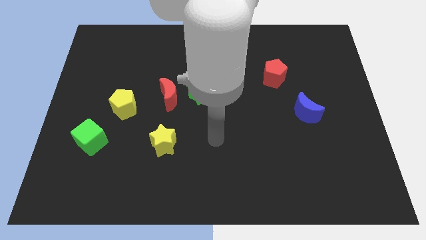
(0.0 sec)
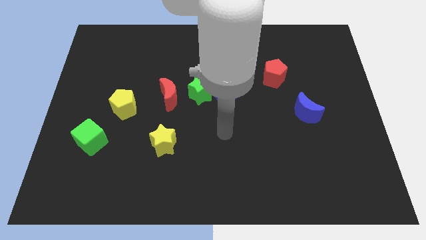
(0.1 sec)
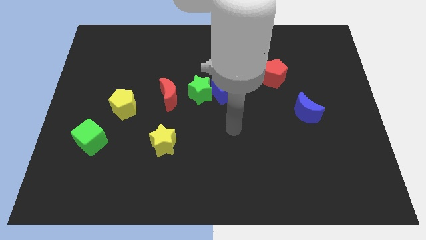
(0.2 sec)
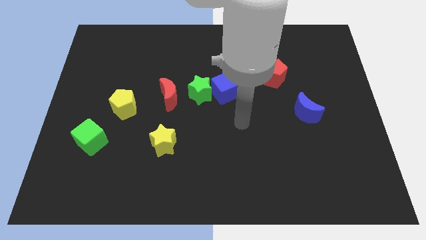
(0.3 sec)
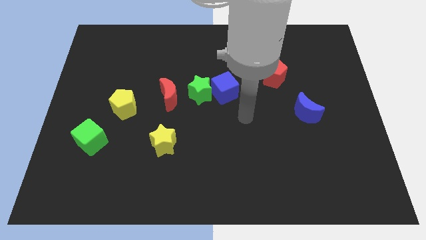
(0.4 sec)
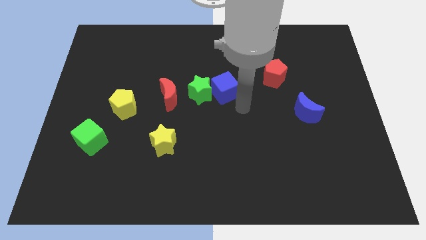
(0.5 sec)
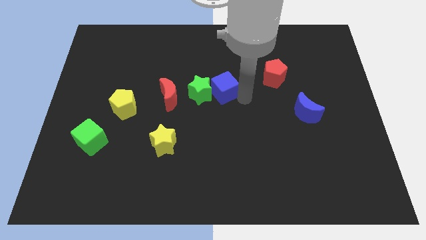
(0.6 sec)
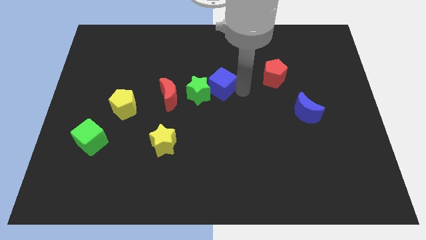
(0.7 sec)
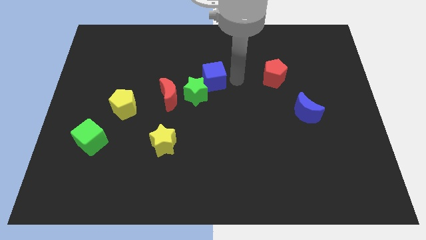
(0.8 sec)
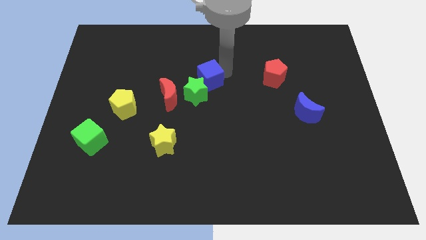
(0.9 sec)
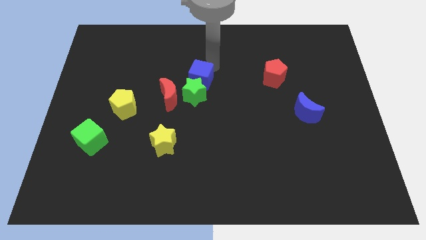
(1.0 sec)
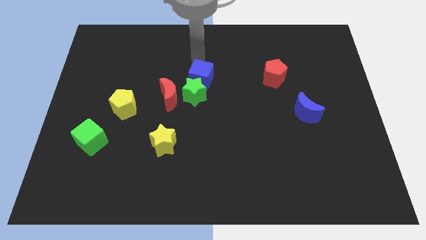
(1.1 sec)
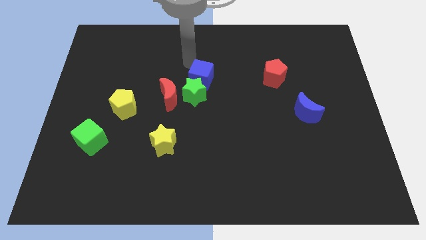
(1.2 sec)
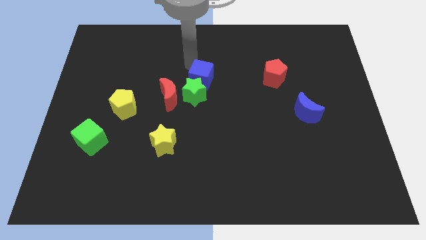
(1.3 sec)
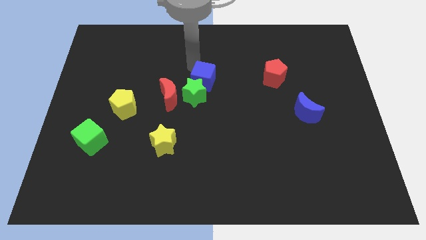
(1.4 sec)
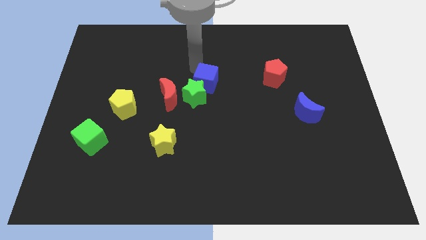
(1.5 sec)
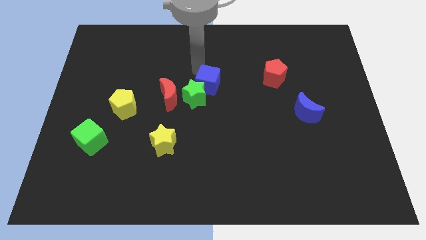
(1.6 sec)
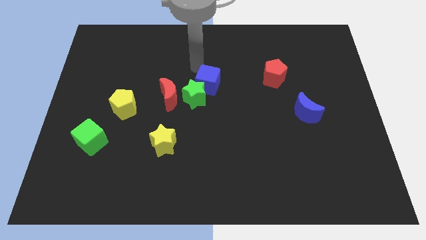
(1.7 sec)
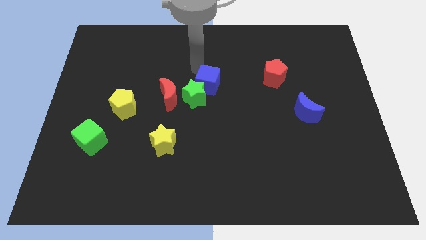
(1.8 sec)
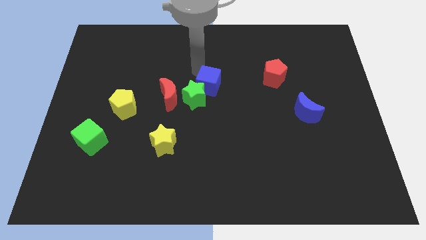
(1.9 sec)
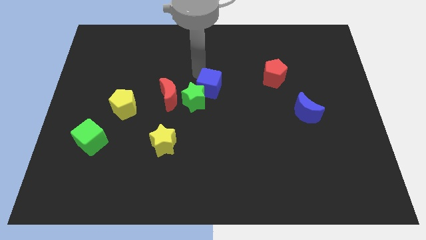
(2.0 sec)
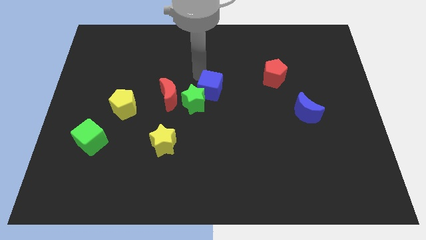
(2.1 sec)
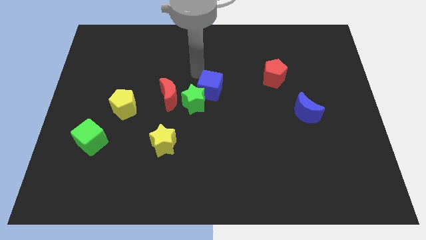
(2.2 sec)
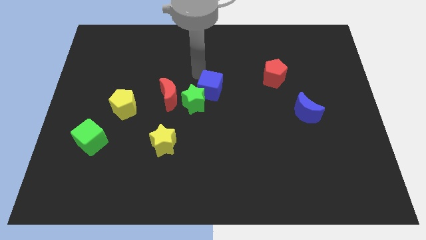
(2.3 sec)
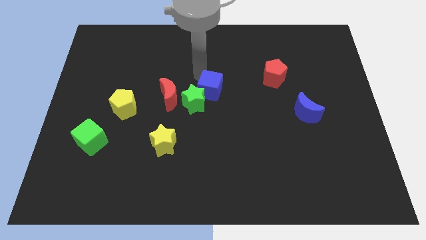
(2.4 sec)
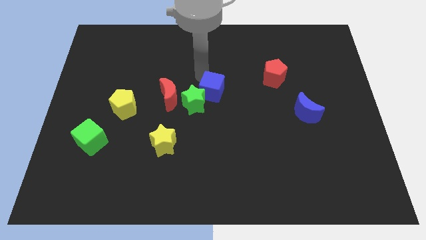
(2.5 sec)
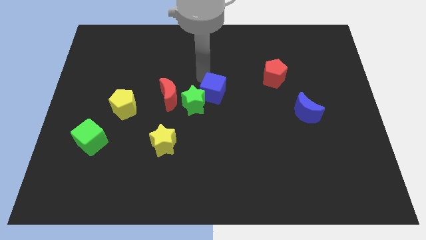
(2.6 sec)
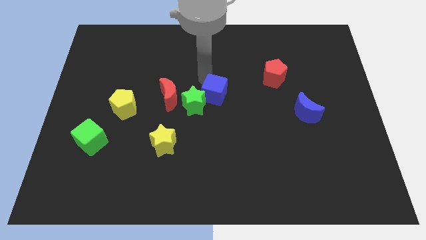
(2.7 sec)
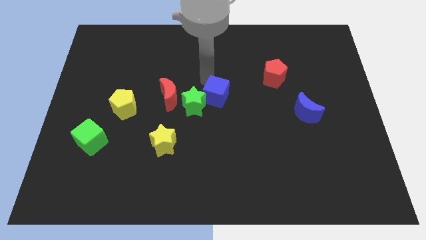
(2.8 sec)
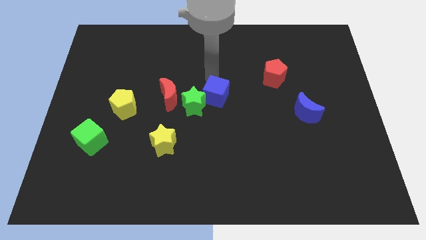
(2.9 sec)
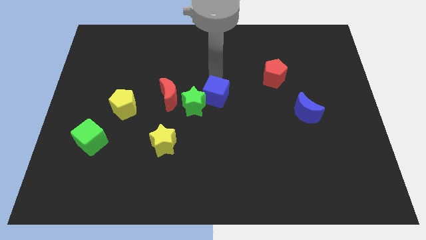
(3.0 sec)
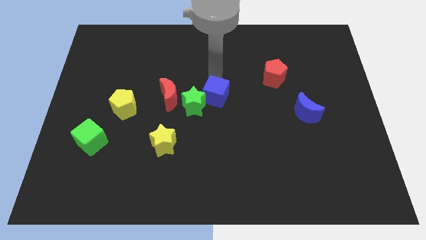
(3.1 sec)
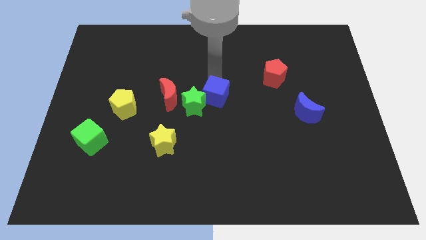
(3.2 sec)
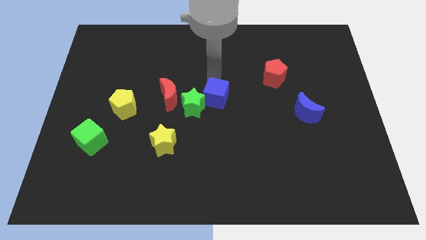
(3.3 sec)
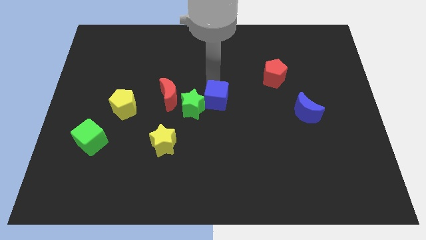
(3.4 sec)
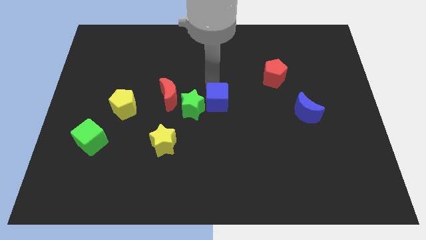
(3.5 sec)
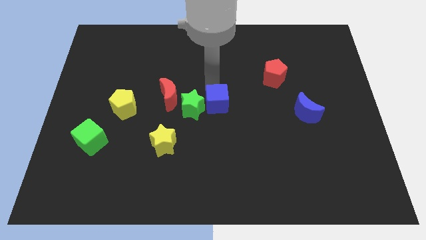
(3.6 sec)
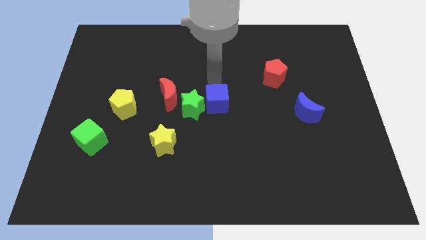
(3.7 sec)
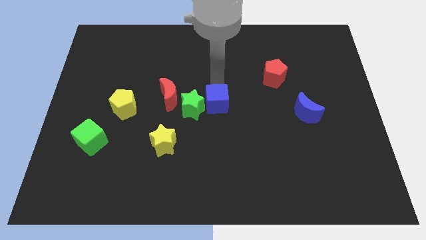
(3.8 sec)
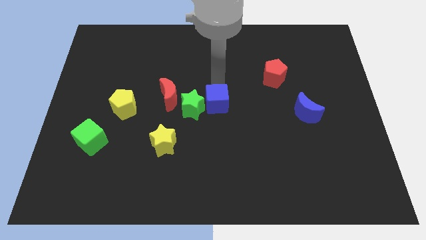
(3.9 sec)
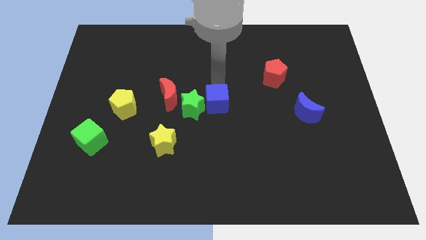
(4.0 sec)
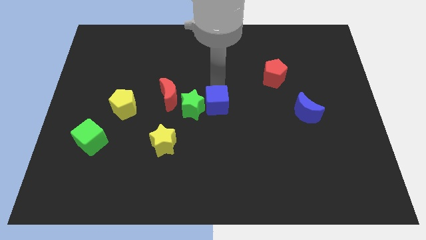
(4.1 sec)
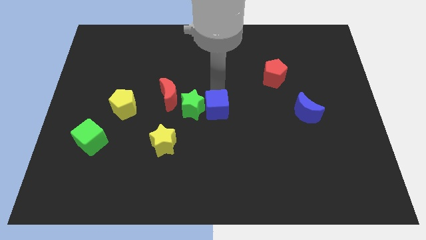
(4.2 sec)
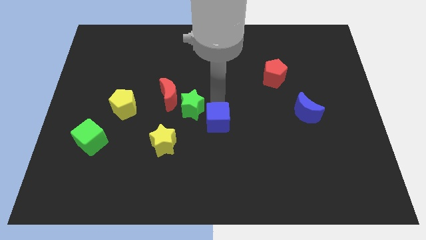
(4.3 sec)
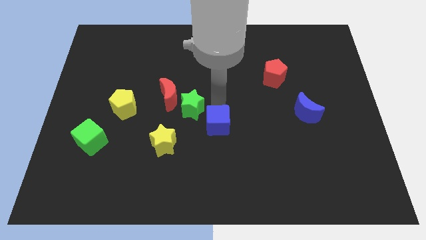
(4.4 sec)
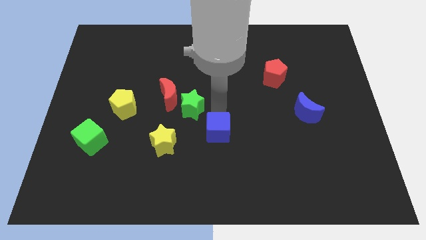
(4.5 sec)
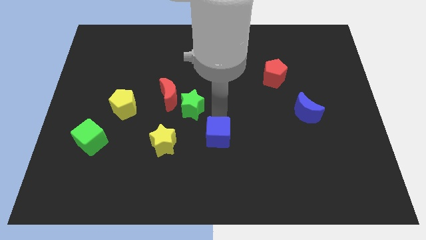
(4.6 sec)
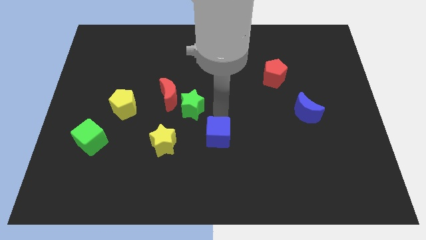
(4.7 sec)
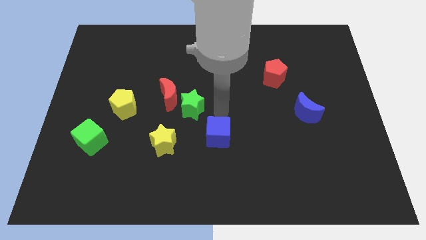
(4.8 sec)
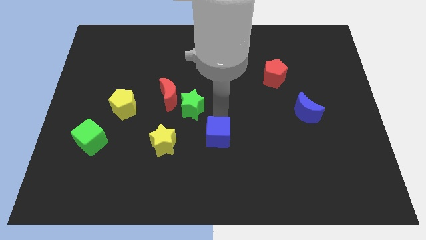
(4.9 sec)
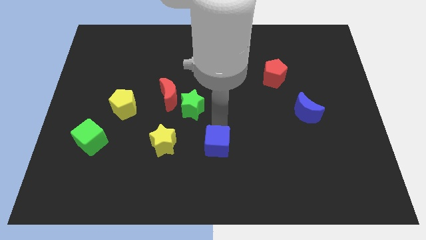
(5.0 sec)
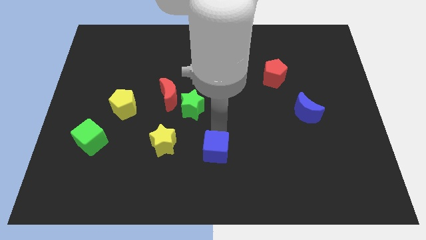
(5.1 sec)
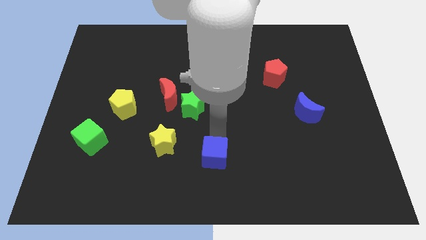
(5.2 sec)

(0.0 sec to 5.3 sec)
slide the blue cube to the bottom
